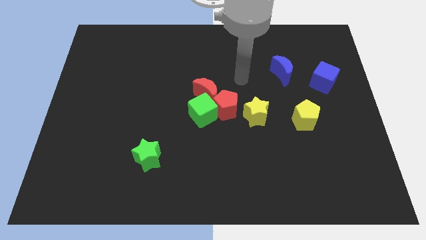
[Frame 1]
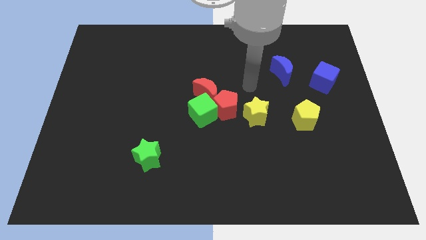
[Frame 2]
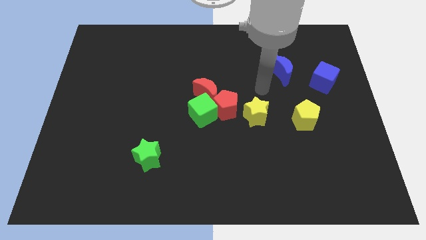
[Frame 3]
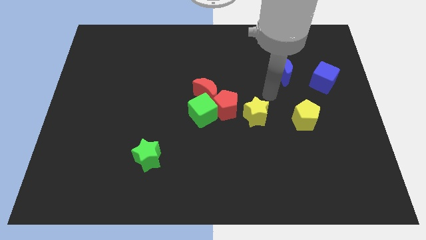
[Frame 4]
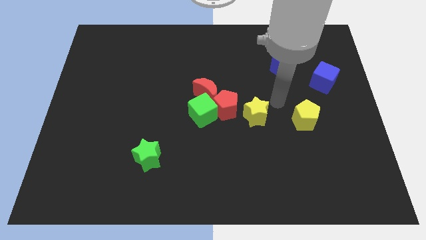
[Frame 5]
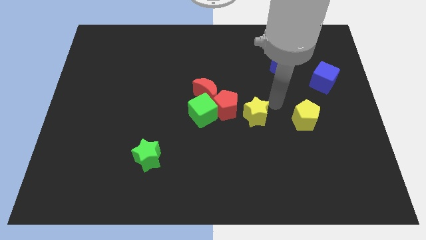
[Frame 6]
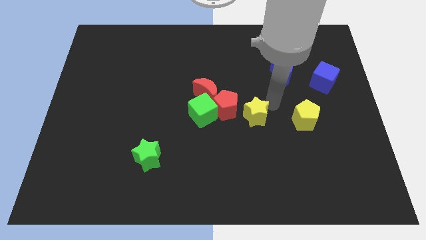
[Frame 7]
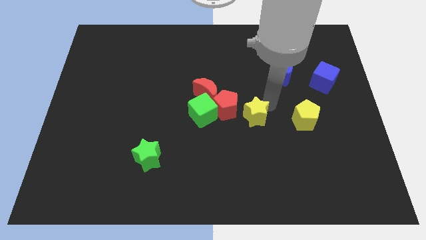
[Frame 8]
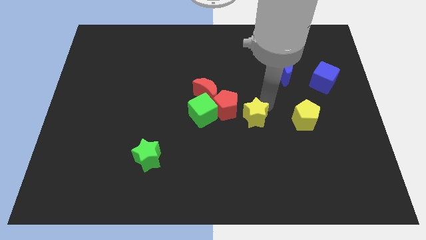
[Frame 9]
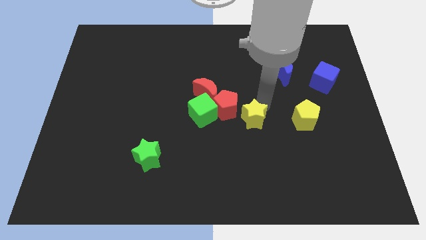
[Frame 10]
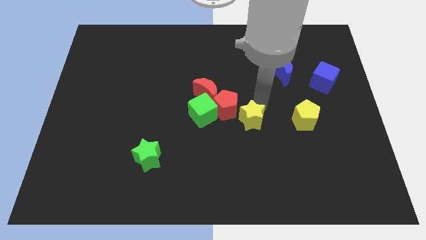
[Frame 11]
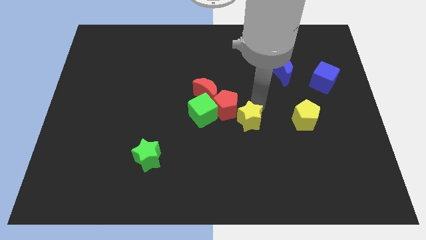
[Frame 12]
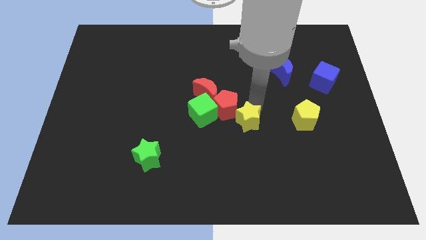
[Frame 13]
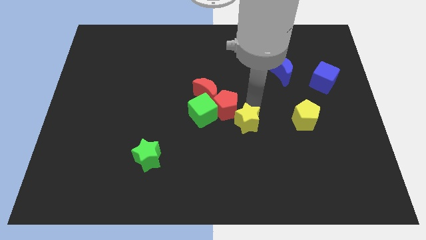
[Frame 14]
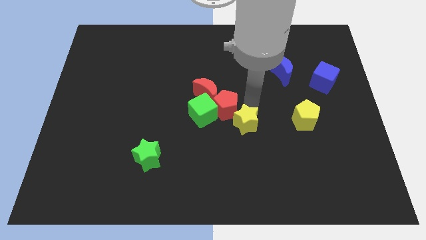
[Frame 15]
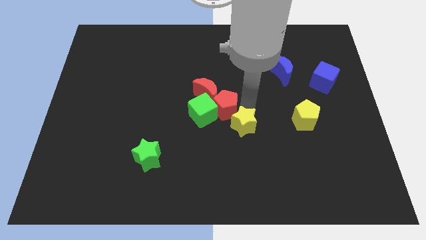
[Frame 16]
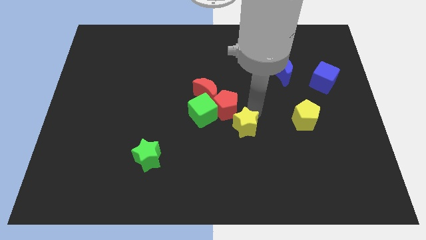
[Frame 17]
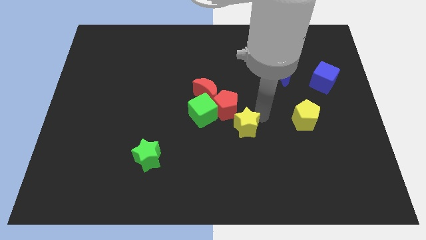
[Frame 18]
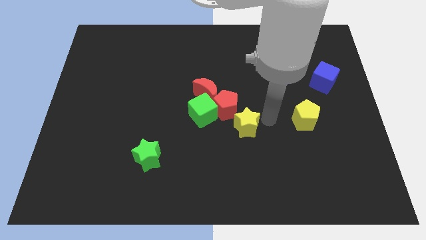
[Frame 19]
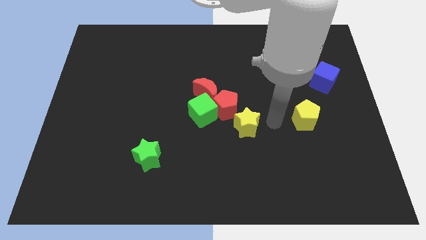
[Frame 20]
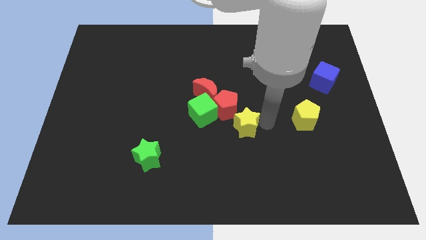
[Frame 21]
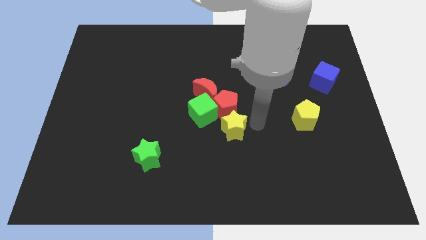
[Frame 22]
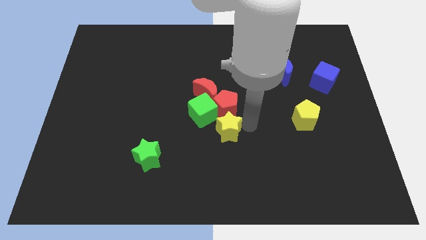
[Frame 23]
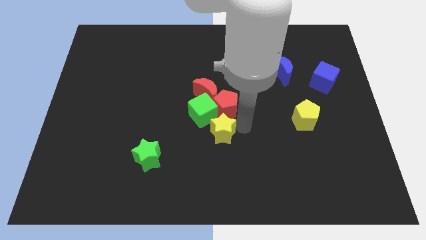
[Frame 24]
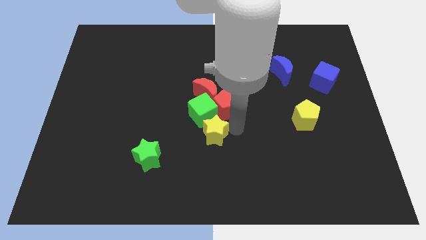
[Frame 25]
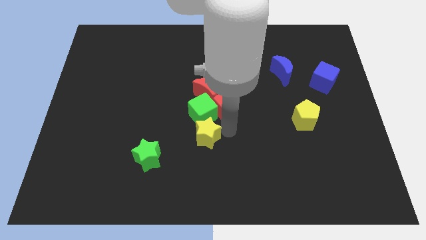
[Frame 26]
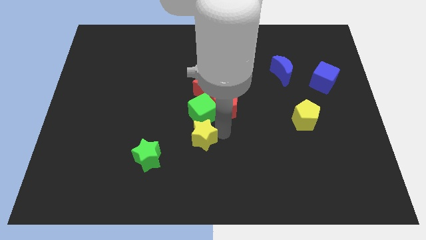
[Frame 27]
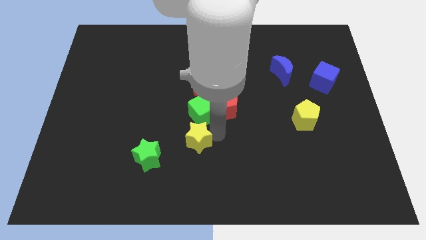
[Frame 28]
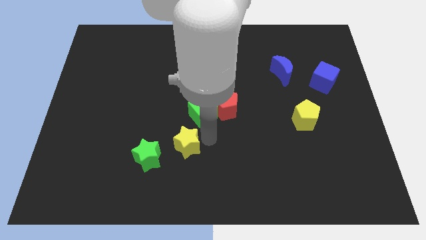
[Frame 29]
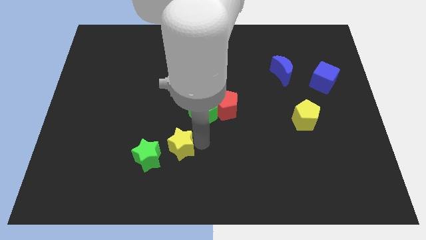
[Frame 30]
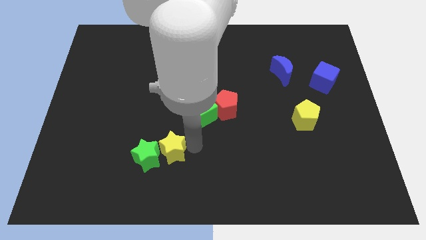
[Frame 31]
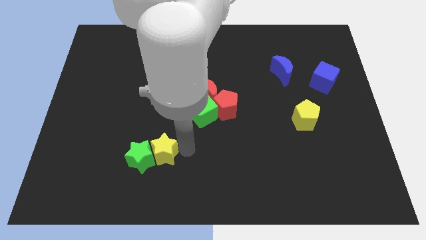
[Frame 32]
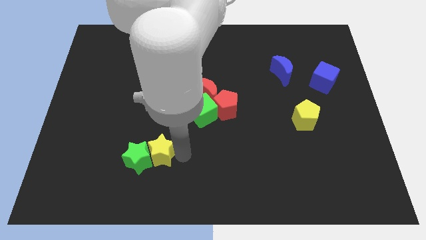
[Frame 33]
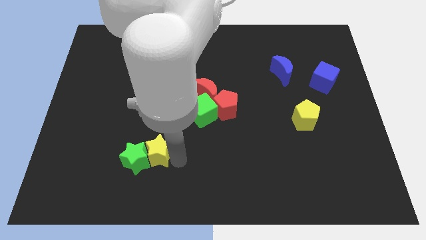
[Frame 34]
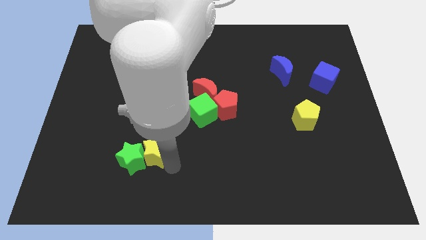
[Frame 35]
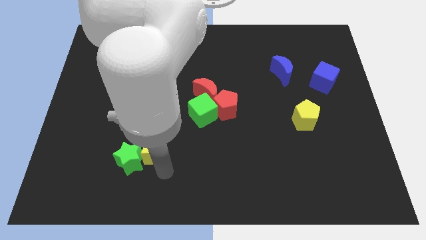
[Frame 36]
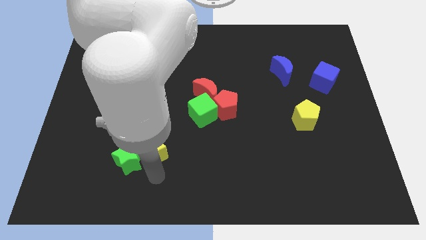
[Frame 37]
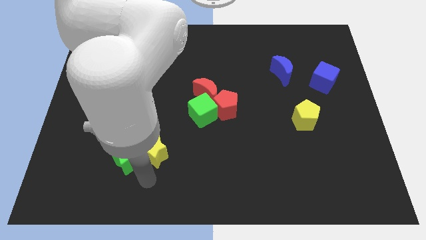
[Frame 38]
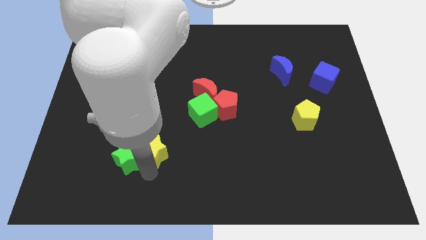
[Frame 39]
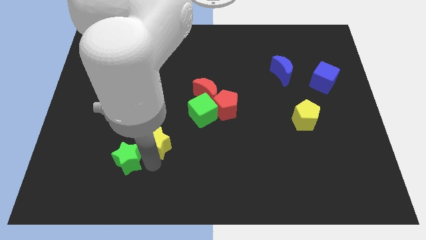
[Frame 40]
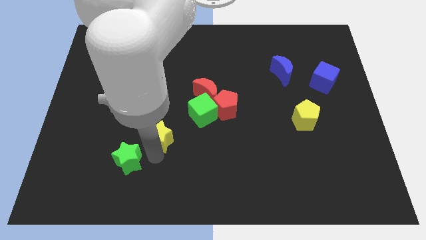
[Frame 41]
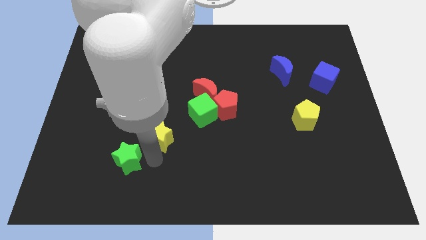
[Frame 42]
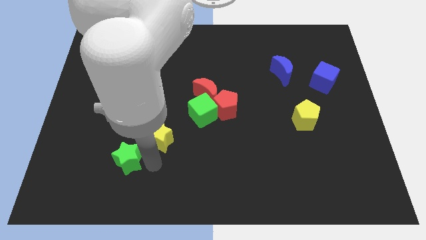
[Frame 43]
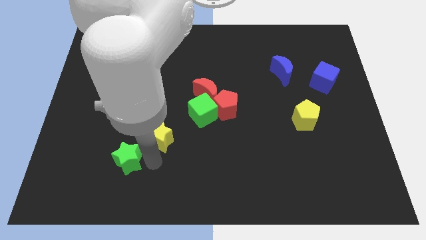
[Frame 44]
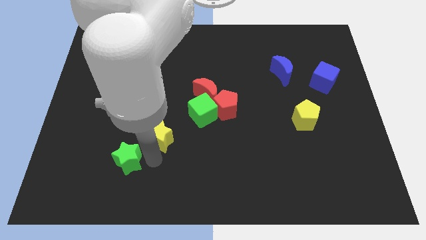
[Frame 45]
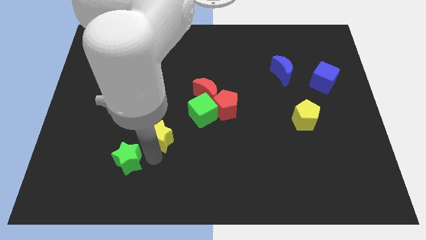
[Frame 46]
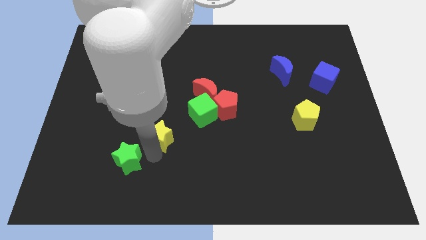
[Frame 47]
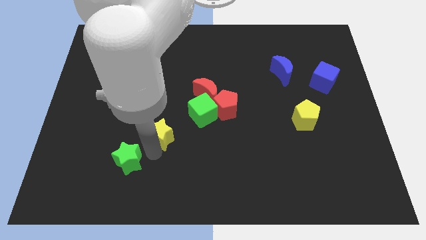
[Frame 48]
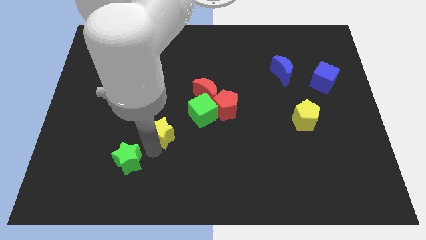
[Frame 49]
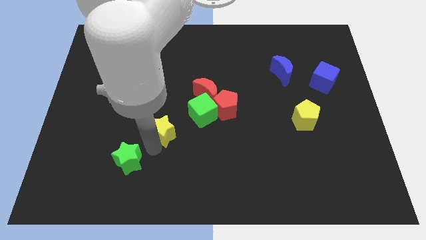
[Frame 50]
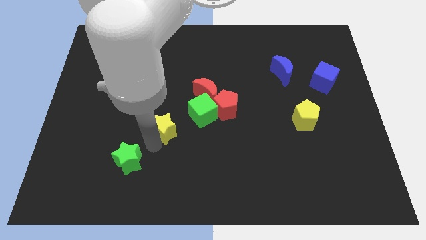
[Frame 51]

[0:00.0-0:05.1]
put the yellow star to the left side of the green cube

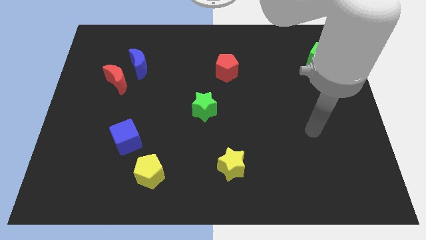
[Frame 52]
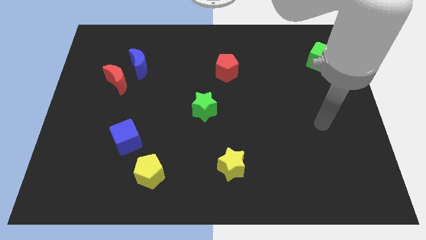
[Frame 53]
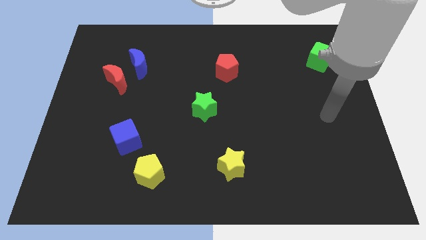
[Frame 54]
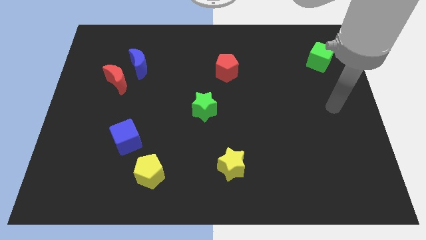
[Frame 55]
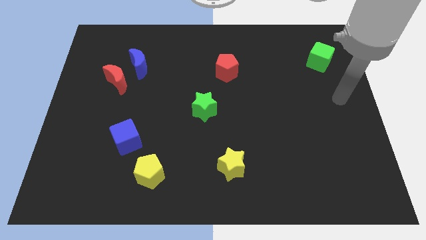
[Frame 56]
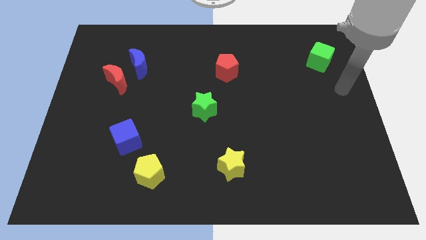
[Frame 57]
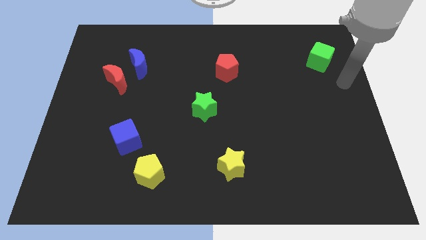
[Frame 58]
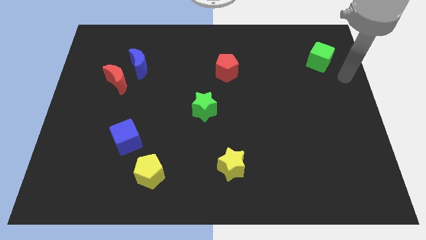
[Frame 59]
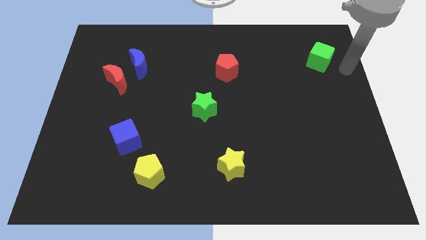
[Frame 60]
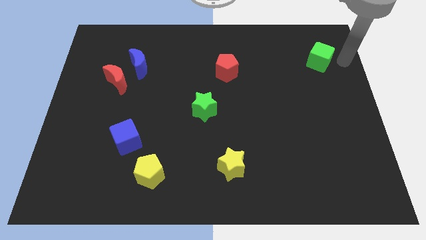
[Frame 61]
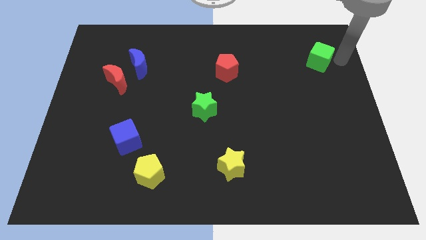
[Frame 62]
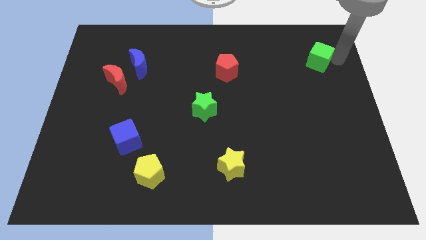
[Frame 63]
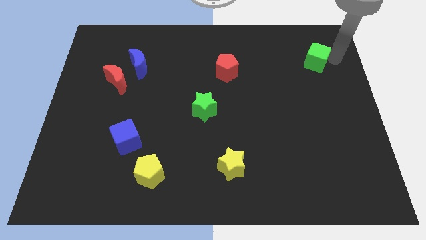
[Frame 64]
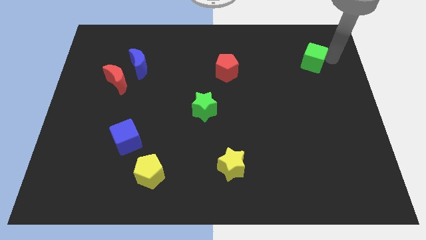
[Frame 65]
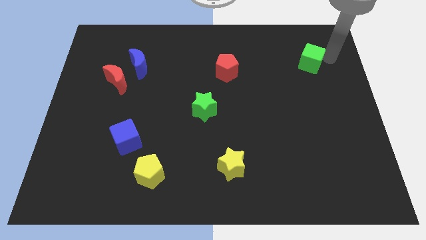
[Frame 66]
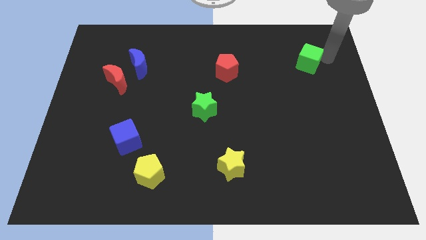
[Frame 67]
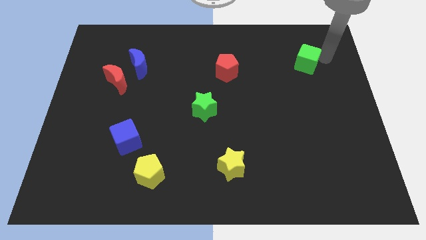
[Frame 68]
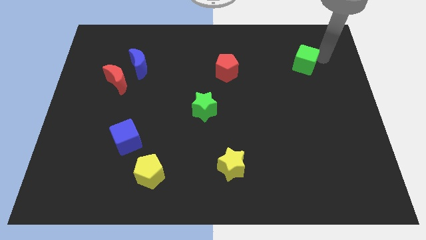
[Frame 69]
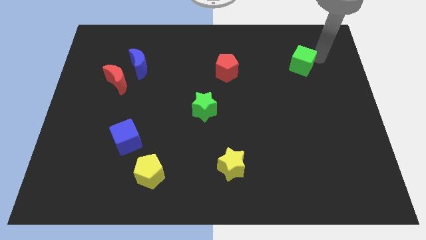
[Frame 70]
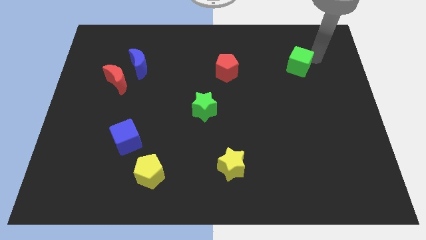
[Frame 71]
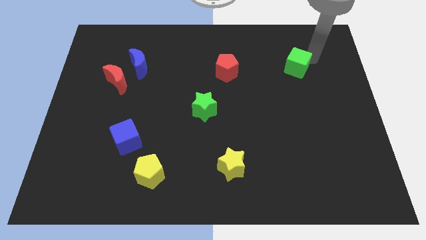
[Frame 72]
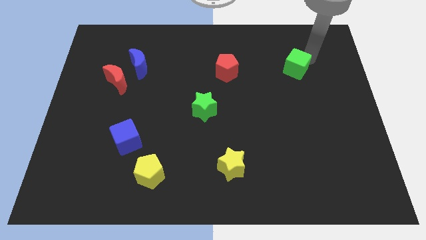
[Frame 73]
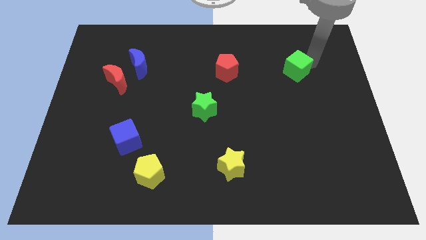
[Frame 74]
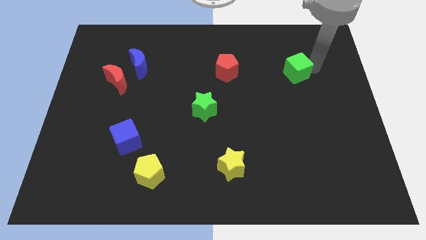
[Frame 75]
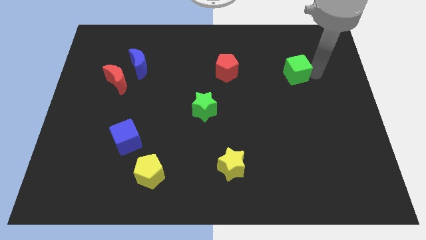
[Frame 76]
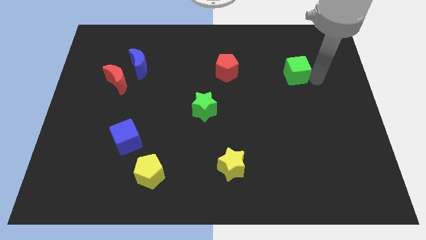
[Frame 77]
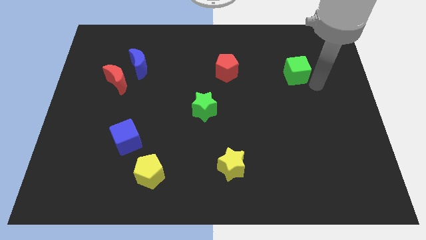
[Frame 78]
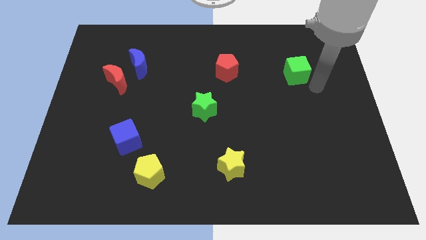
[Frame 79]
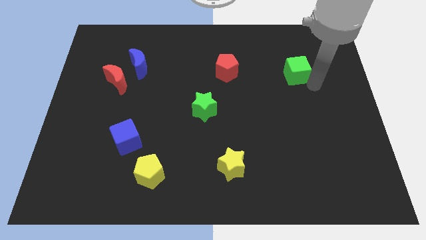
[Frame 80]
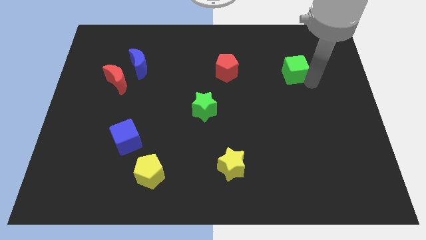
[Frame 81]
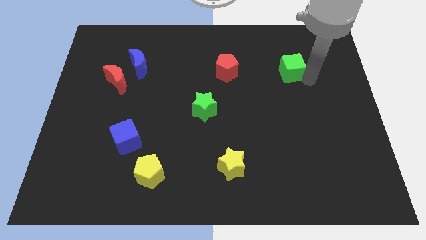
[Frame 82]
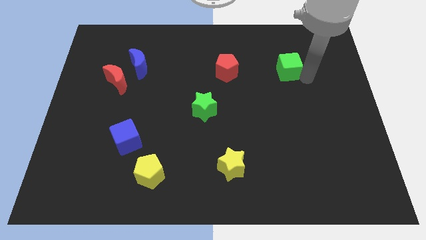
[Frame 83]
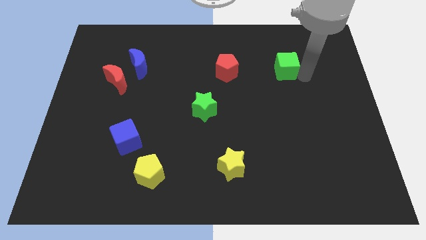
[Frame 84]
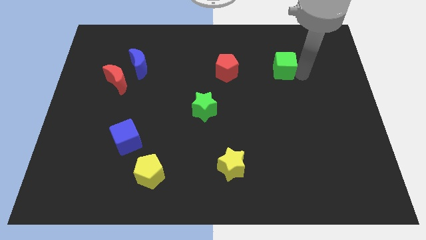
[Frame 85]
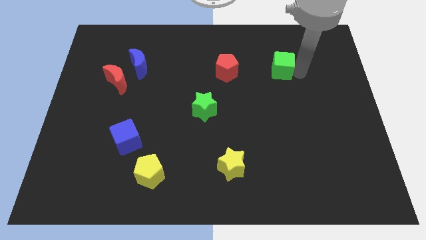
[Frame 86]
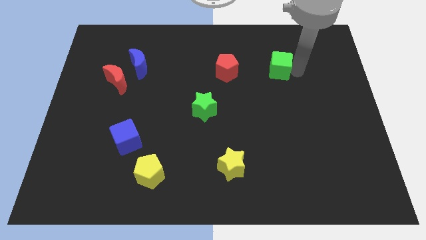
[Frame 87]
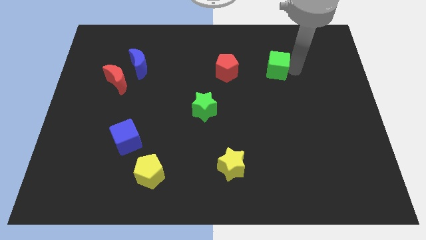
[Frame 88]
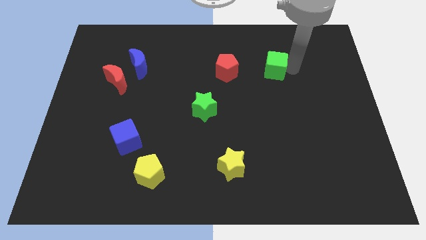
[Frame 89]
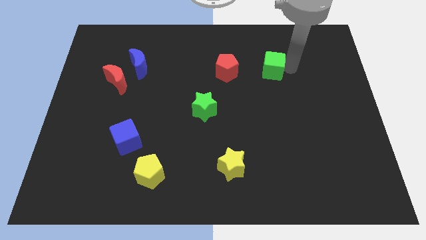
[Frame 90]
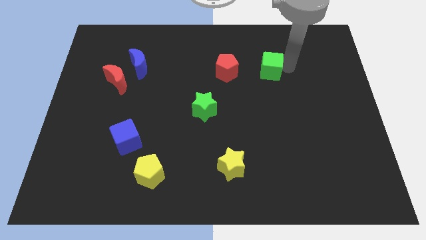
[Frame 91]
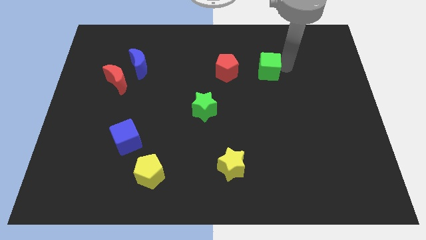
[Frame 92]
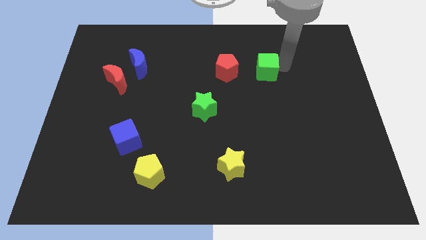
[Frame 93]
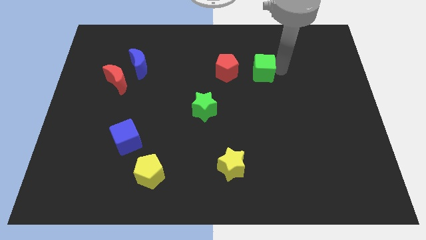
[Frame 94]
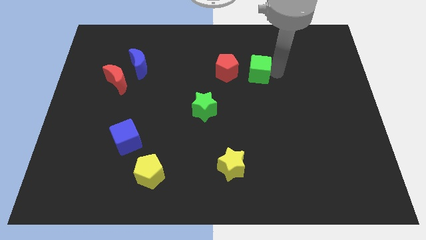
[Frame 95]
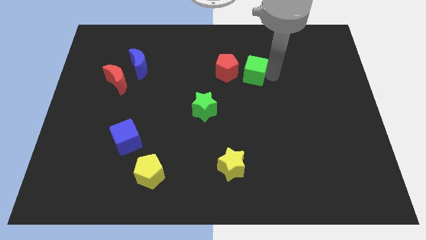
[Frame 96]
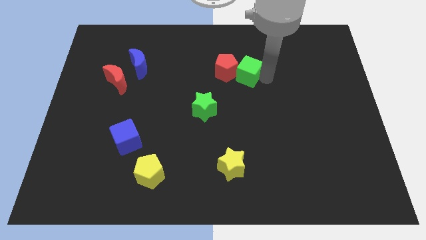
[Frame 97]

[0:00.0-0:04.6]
put the green cube to the top right side of the red pentagon
